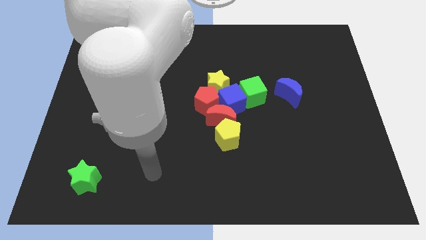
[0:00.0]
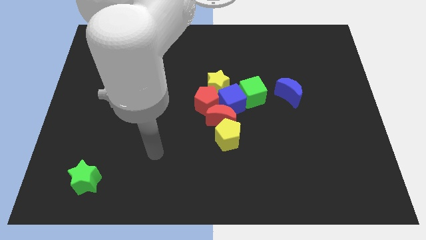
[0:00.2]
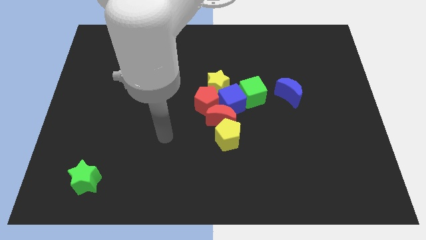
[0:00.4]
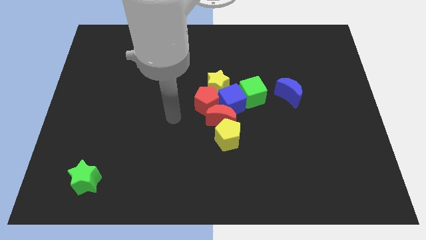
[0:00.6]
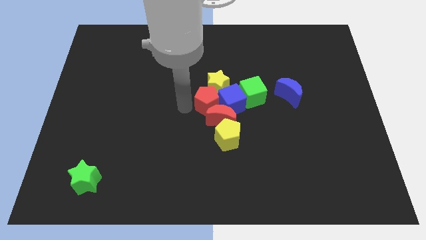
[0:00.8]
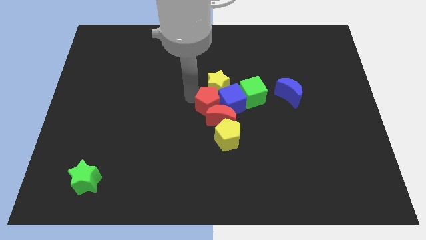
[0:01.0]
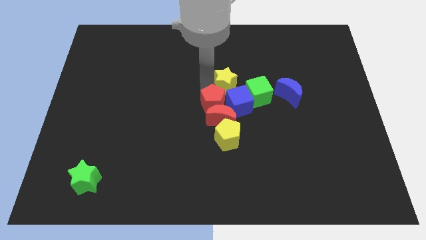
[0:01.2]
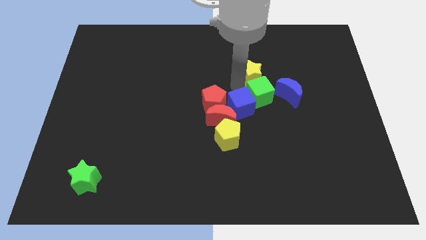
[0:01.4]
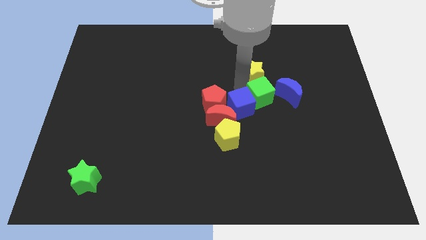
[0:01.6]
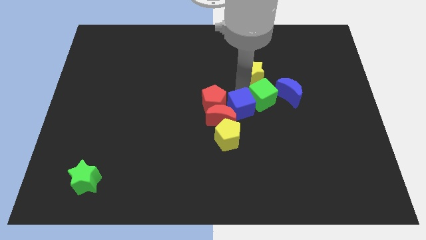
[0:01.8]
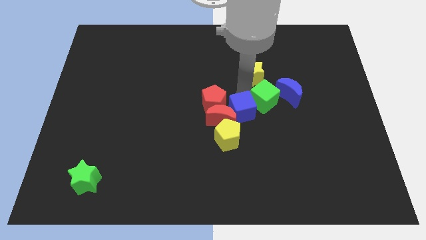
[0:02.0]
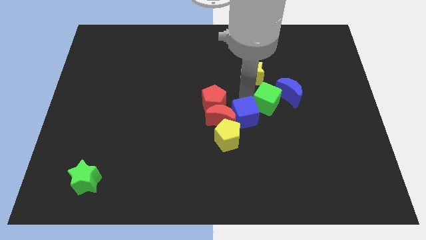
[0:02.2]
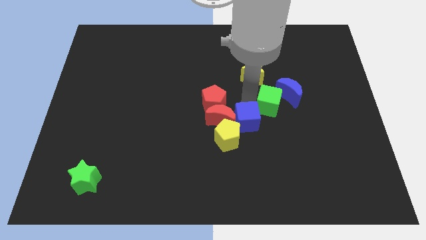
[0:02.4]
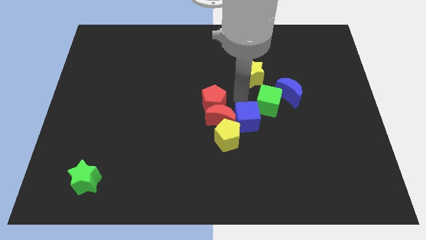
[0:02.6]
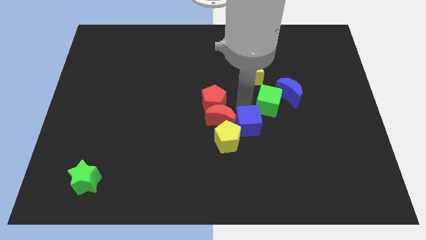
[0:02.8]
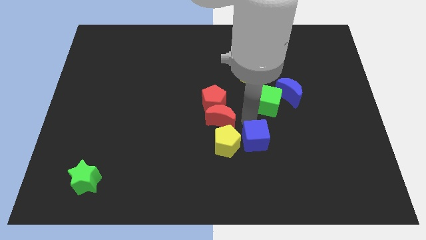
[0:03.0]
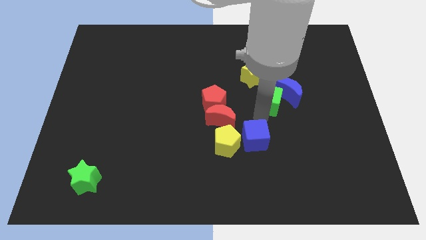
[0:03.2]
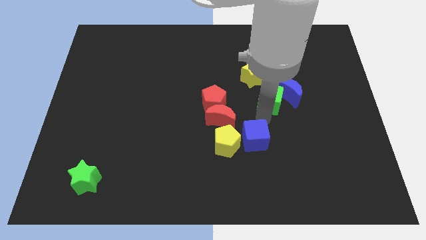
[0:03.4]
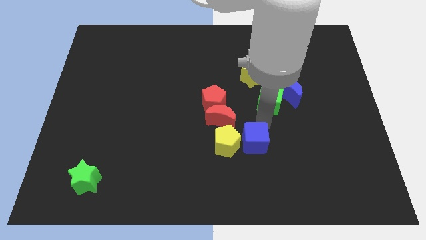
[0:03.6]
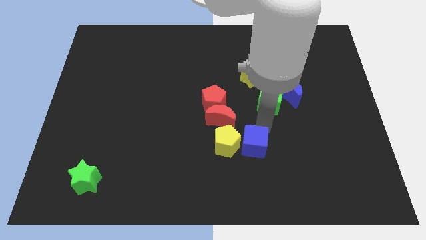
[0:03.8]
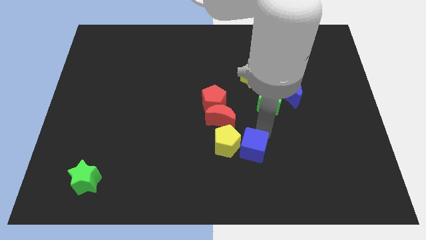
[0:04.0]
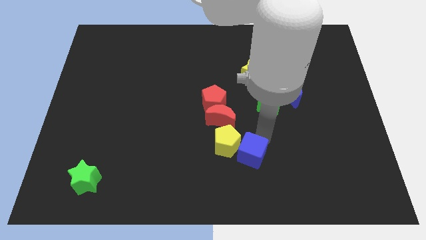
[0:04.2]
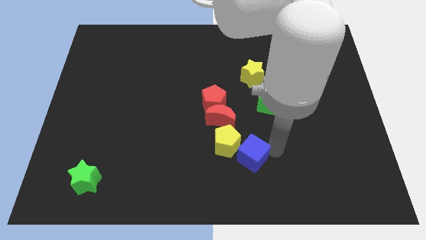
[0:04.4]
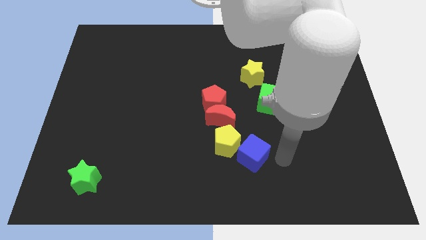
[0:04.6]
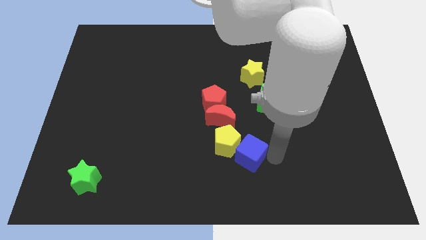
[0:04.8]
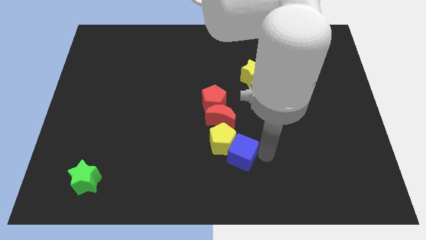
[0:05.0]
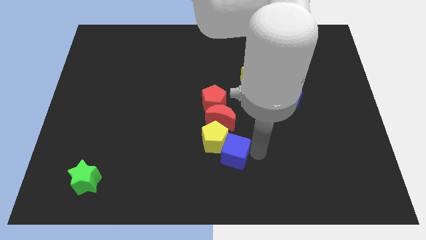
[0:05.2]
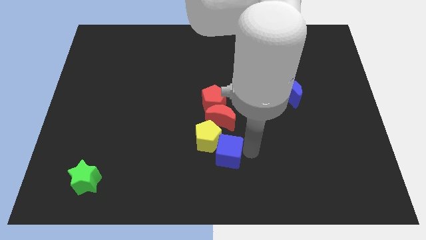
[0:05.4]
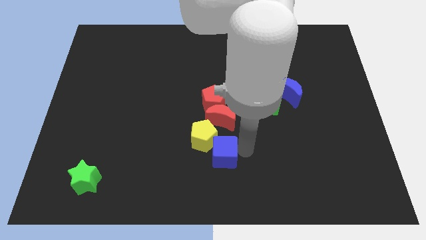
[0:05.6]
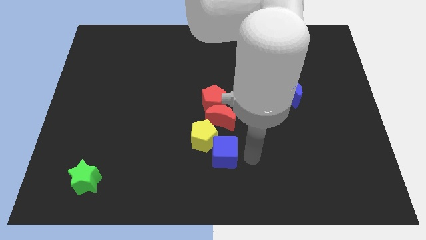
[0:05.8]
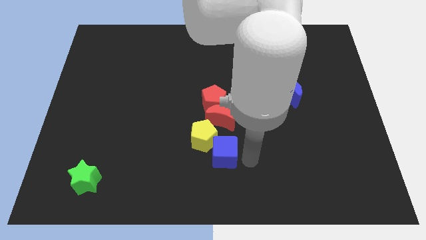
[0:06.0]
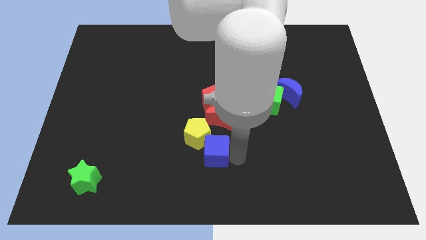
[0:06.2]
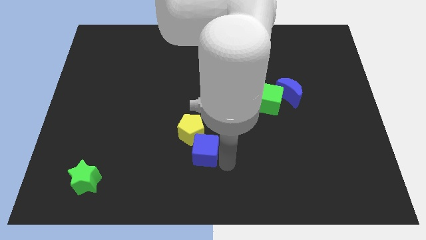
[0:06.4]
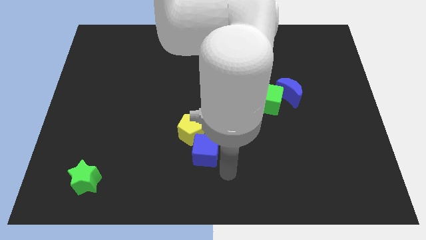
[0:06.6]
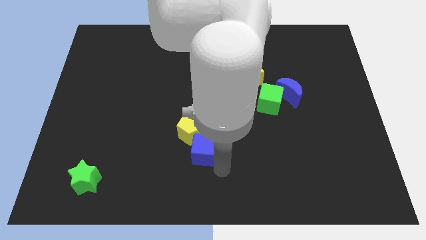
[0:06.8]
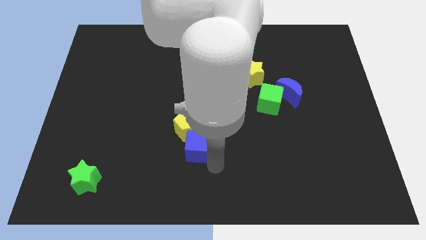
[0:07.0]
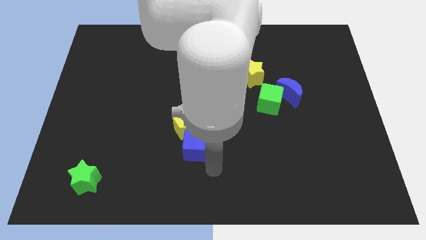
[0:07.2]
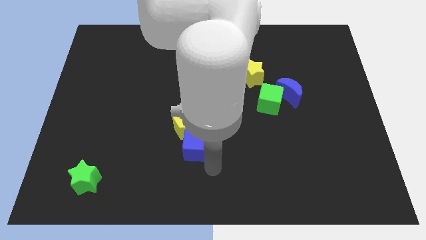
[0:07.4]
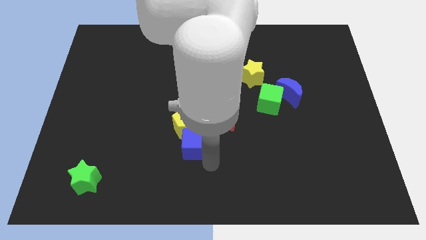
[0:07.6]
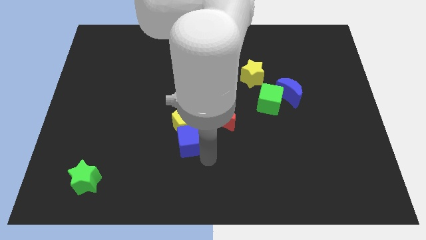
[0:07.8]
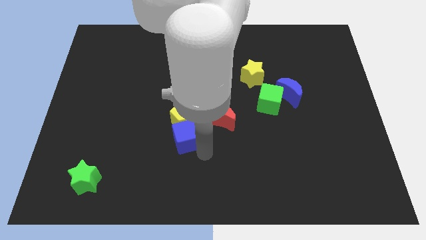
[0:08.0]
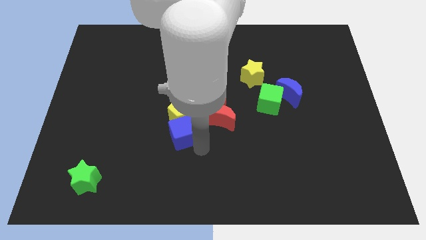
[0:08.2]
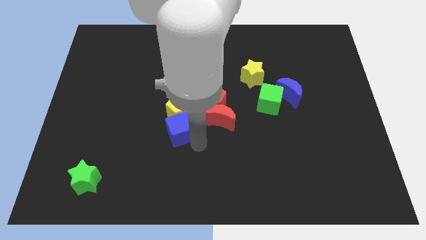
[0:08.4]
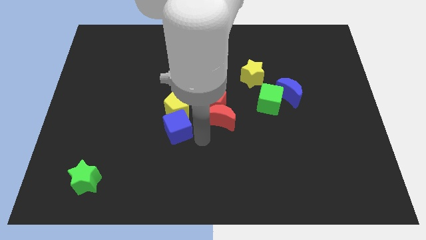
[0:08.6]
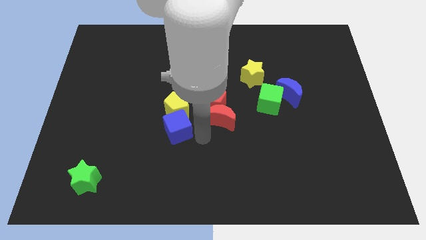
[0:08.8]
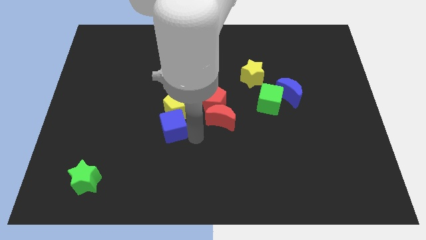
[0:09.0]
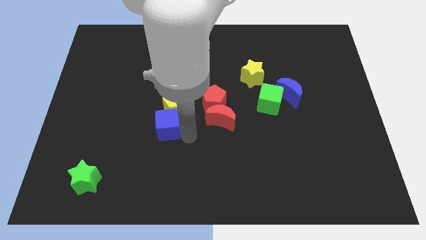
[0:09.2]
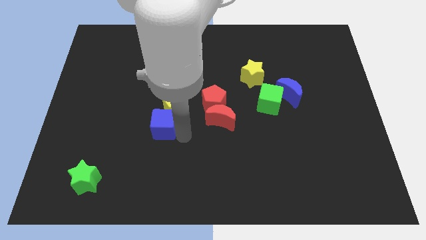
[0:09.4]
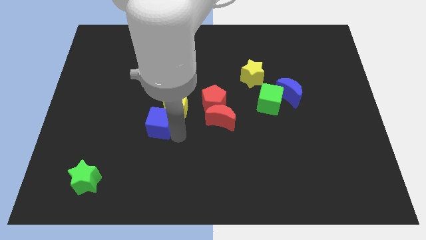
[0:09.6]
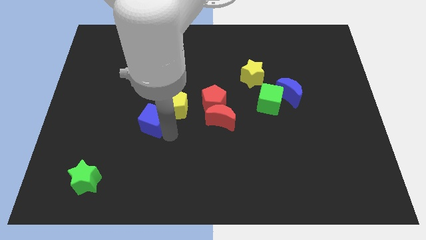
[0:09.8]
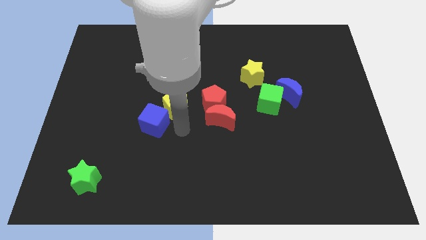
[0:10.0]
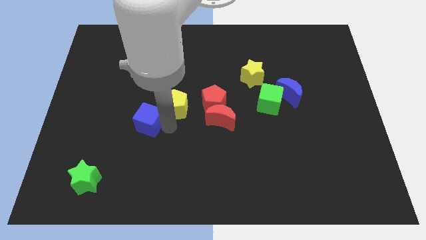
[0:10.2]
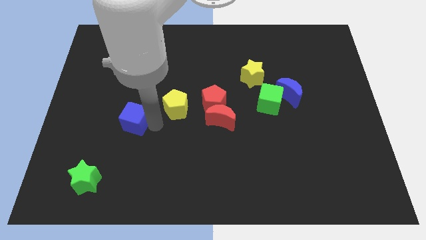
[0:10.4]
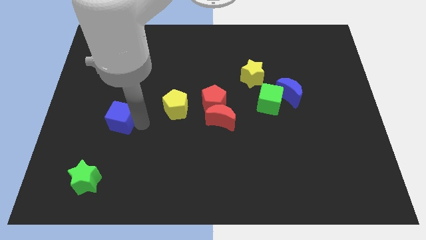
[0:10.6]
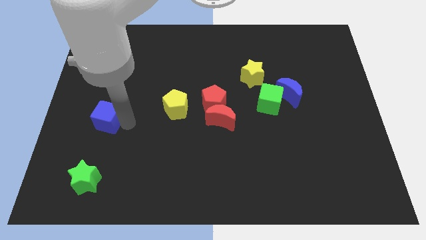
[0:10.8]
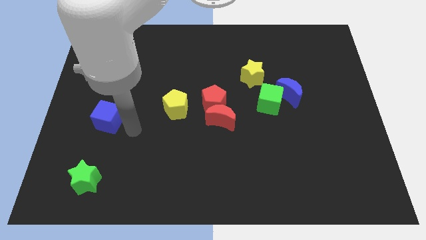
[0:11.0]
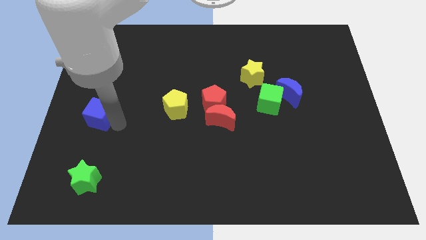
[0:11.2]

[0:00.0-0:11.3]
slide the blue cube to the left side of the board

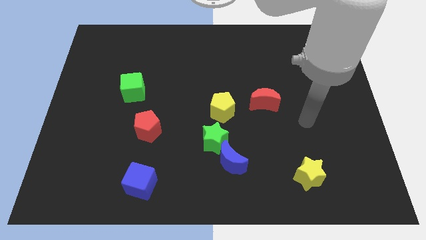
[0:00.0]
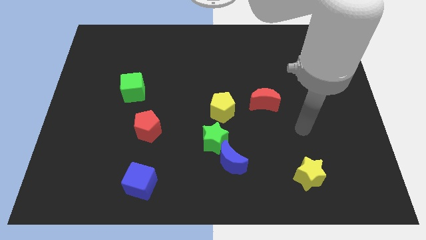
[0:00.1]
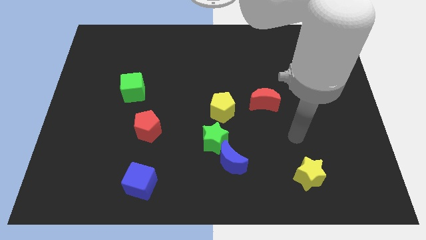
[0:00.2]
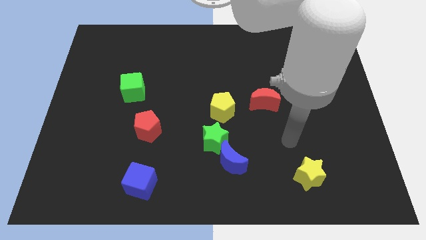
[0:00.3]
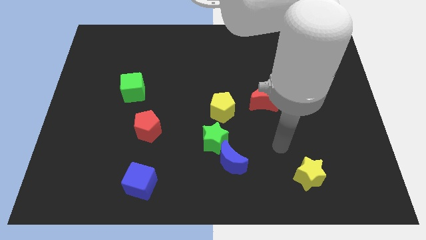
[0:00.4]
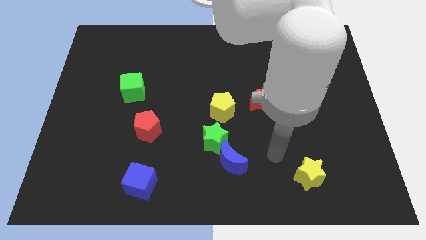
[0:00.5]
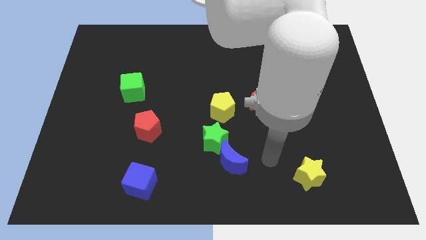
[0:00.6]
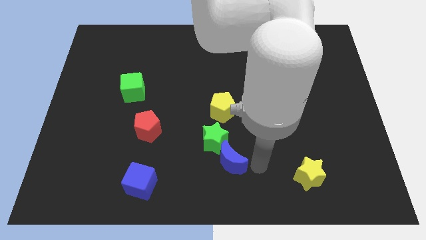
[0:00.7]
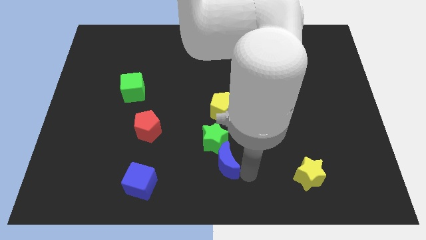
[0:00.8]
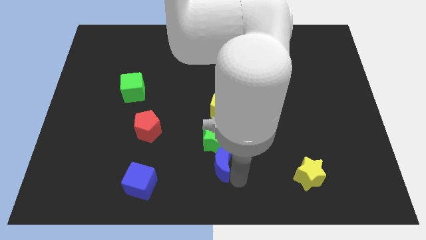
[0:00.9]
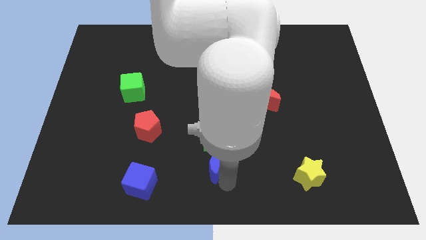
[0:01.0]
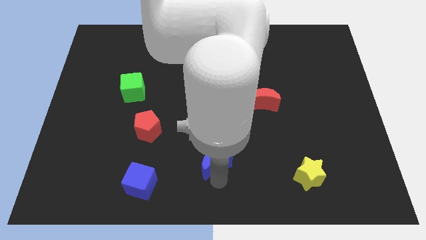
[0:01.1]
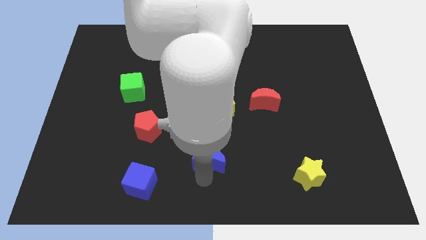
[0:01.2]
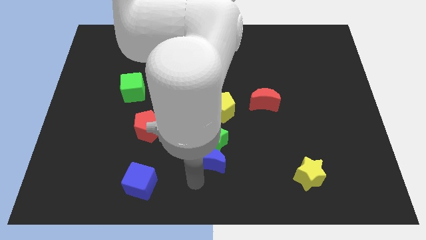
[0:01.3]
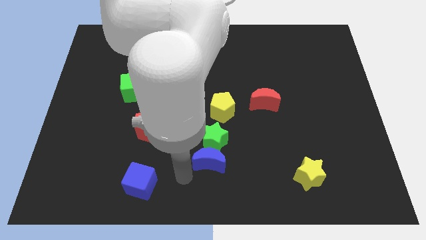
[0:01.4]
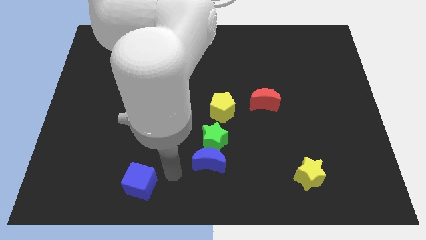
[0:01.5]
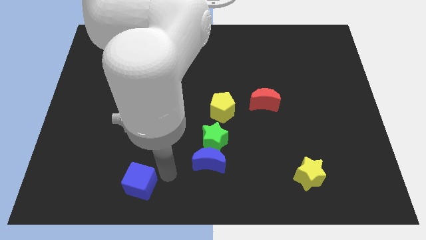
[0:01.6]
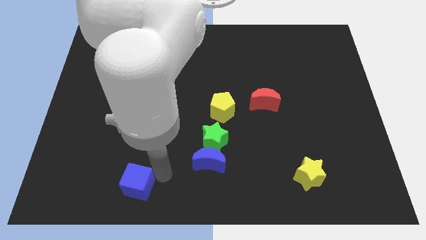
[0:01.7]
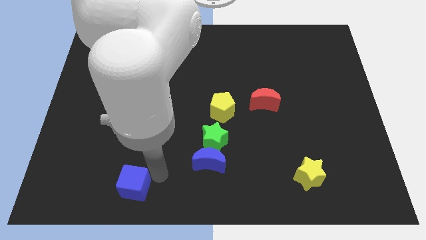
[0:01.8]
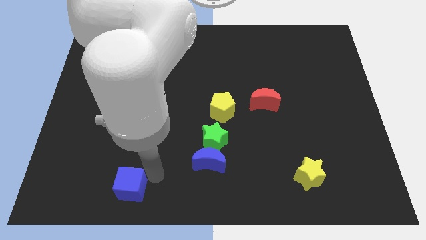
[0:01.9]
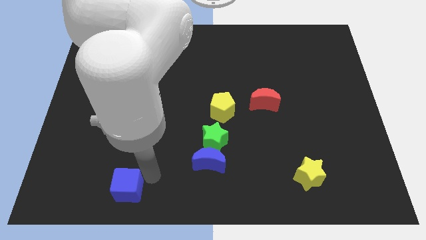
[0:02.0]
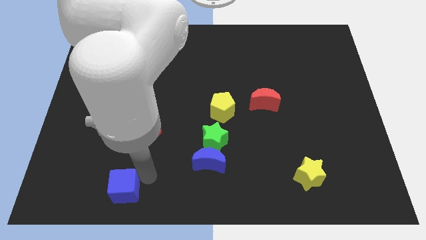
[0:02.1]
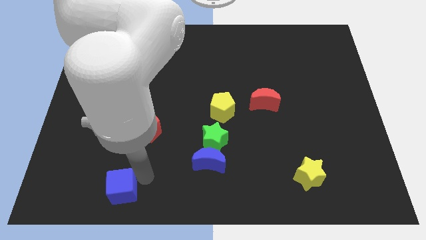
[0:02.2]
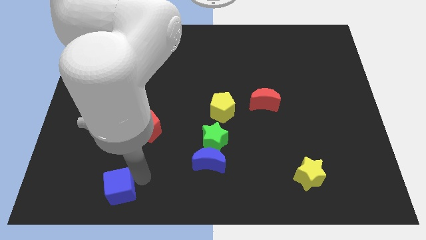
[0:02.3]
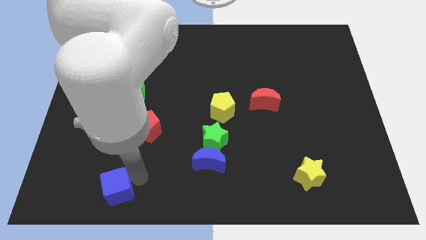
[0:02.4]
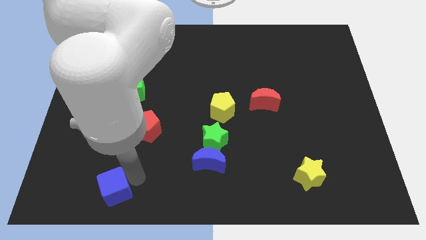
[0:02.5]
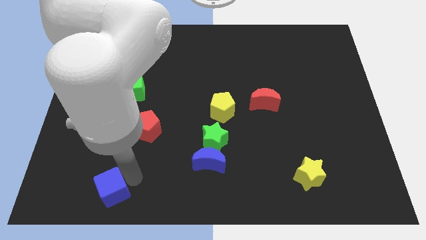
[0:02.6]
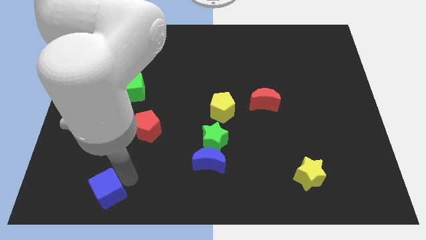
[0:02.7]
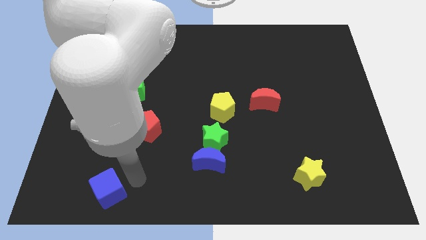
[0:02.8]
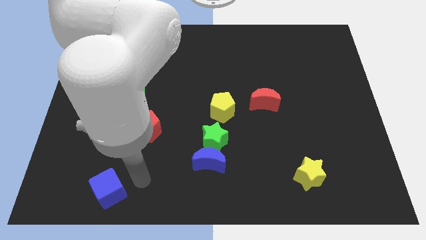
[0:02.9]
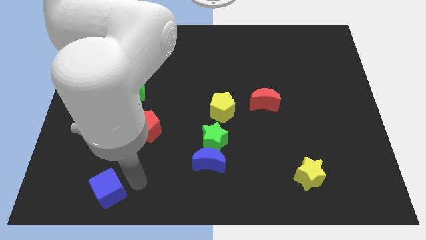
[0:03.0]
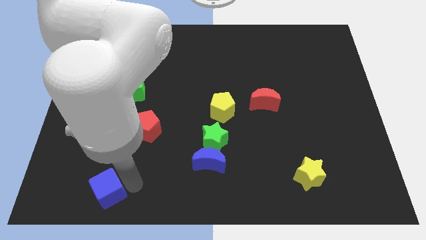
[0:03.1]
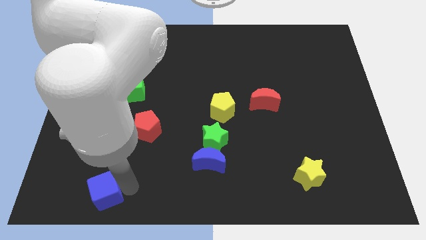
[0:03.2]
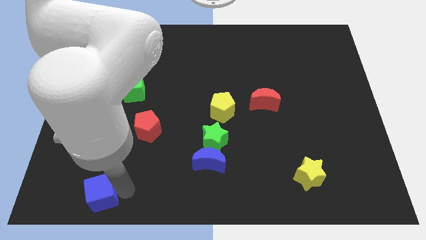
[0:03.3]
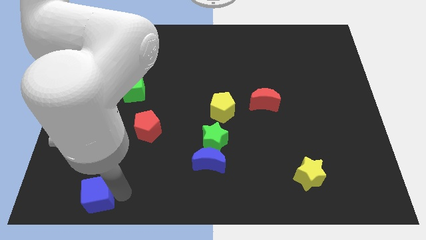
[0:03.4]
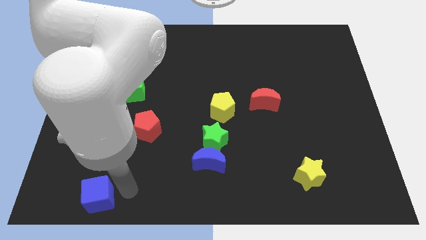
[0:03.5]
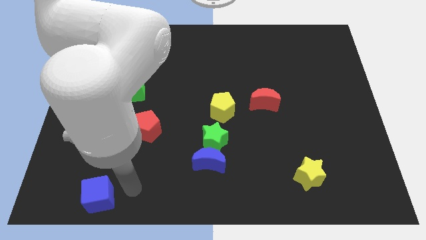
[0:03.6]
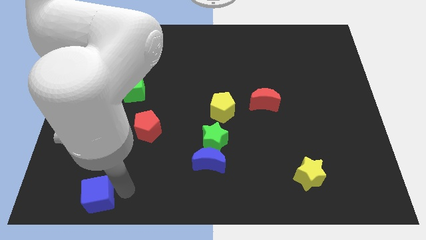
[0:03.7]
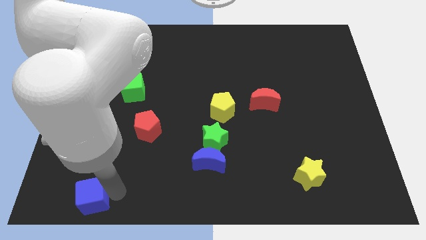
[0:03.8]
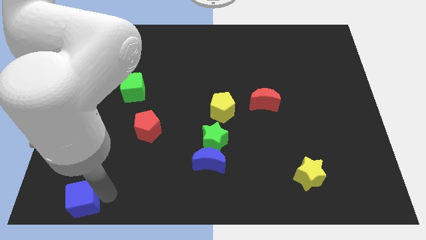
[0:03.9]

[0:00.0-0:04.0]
slide the blue cube to the bottom left of the board
